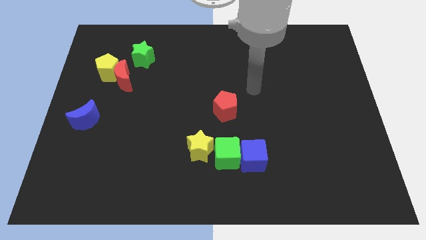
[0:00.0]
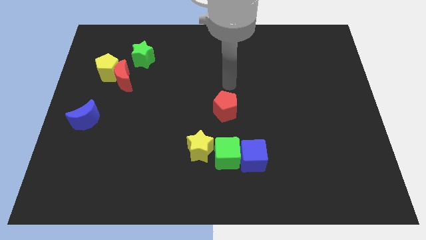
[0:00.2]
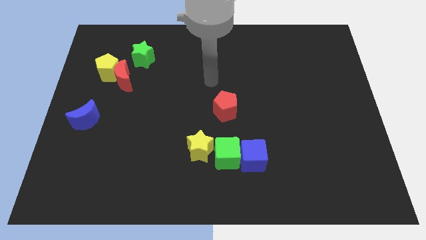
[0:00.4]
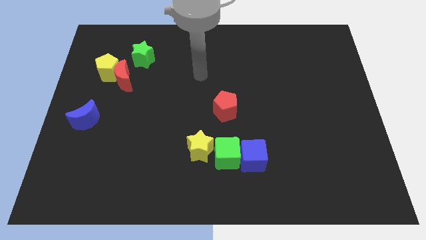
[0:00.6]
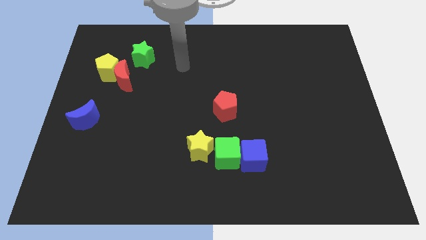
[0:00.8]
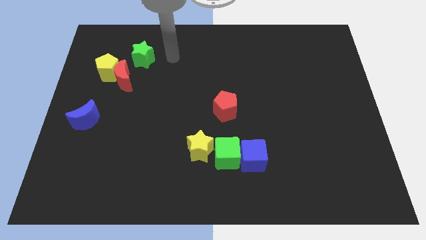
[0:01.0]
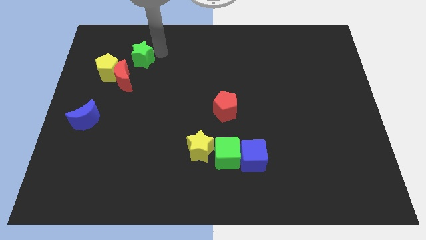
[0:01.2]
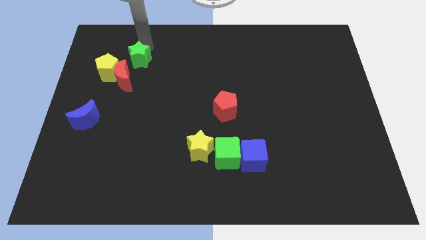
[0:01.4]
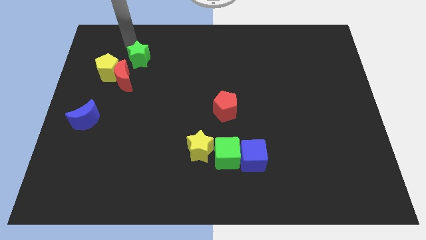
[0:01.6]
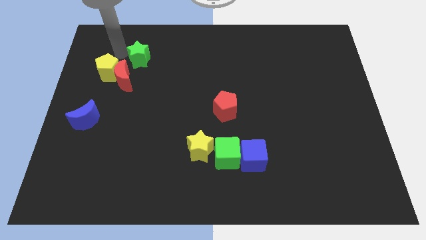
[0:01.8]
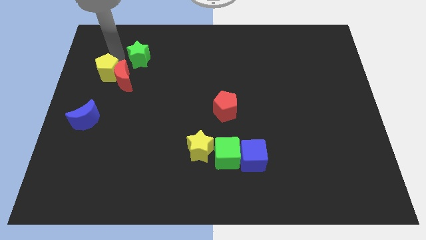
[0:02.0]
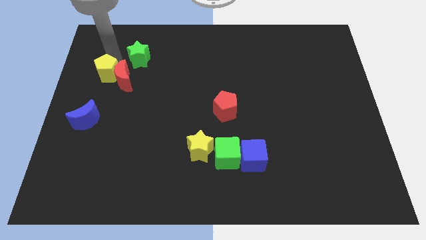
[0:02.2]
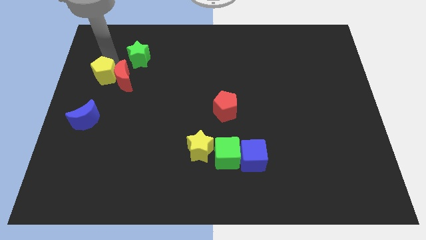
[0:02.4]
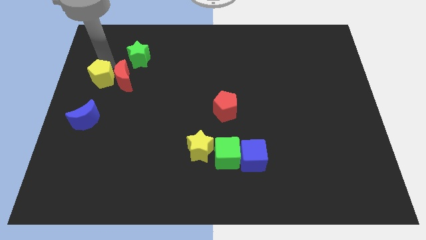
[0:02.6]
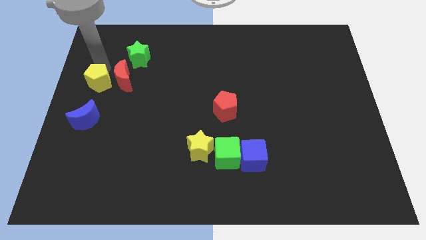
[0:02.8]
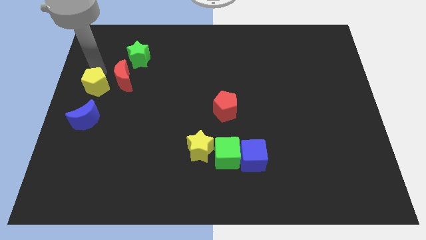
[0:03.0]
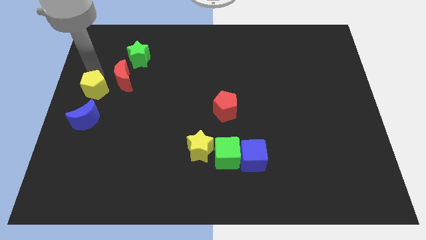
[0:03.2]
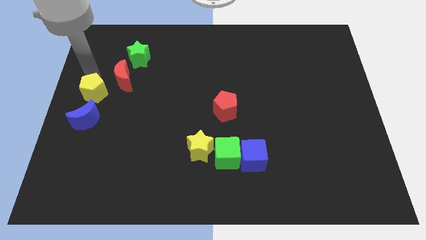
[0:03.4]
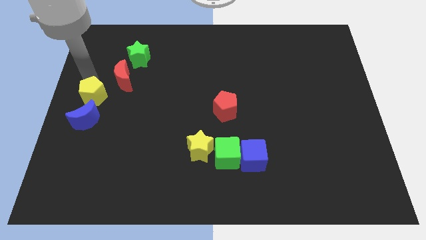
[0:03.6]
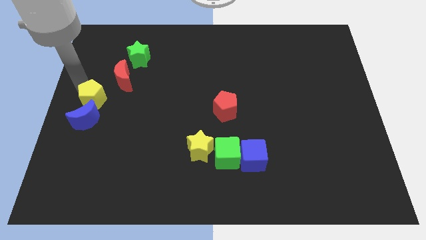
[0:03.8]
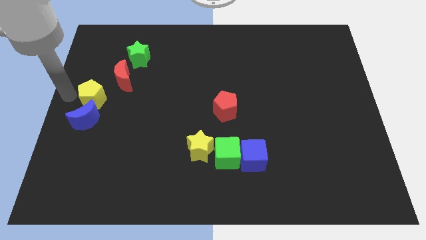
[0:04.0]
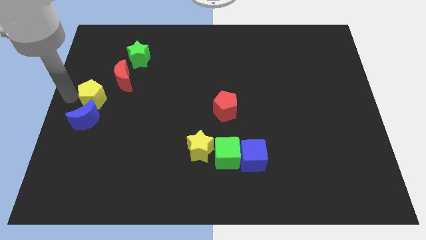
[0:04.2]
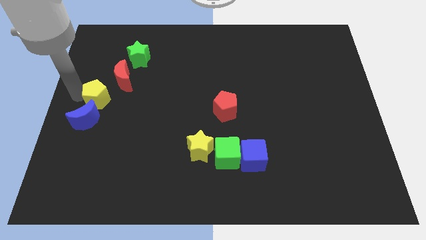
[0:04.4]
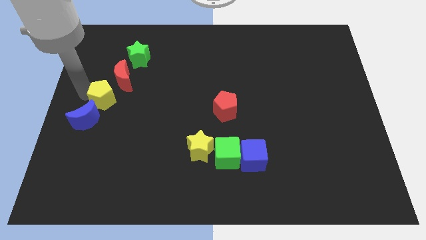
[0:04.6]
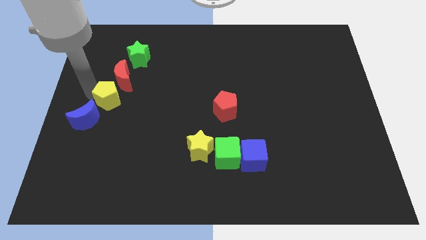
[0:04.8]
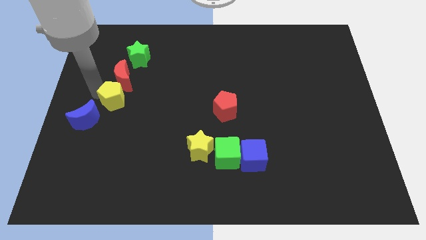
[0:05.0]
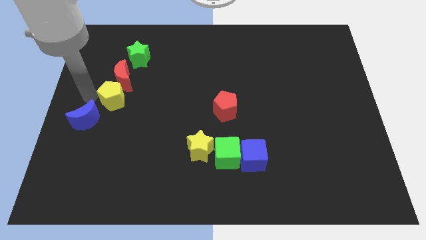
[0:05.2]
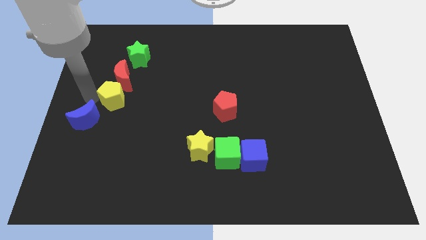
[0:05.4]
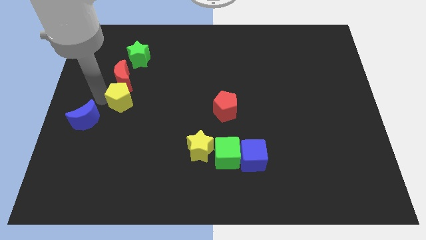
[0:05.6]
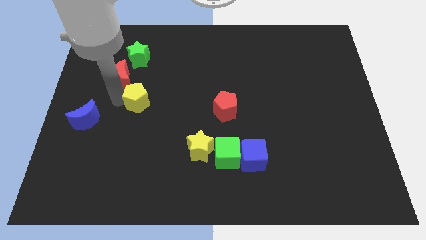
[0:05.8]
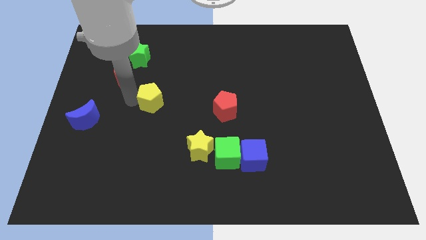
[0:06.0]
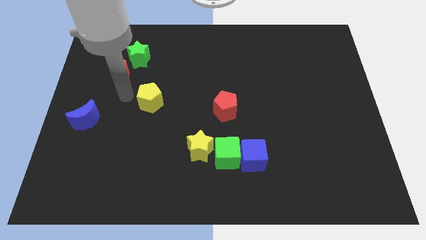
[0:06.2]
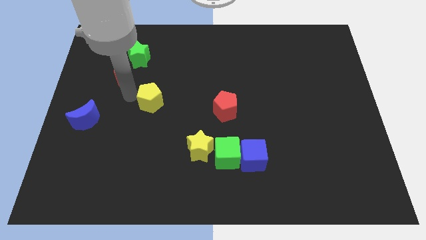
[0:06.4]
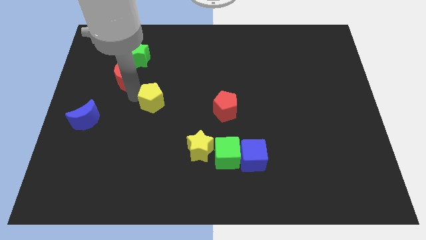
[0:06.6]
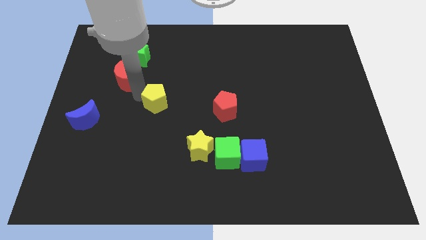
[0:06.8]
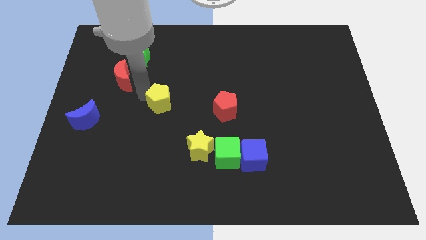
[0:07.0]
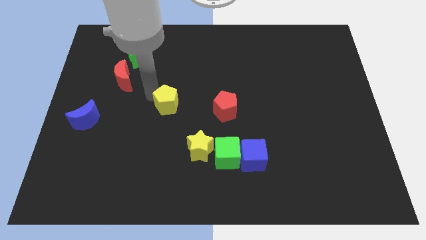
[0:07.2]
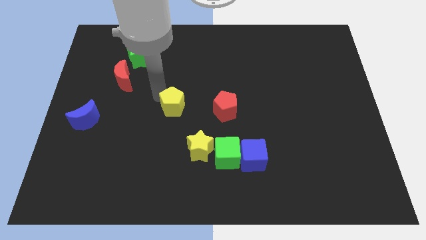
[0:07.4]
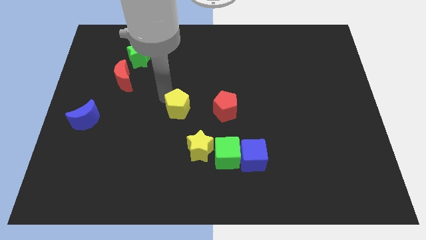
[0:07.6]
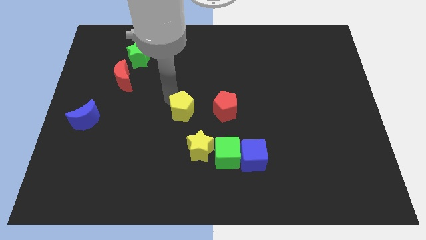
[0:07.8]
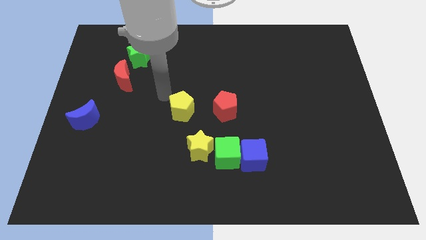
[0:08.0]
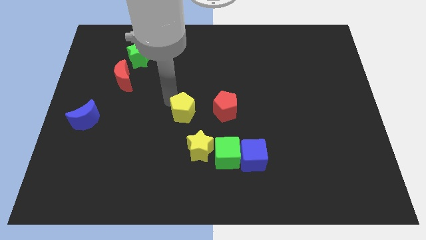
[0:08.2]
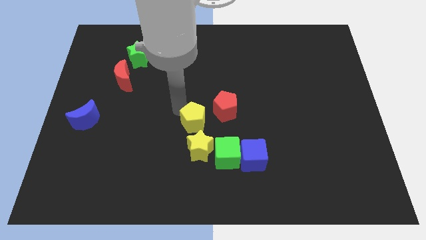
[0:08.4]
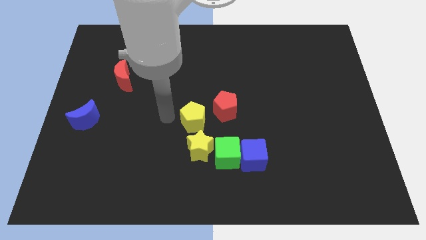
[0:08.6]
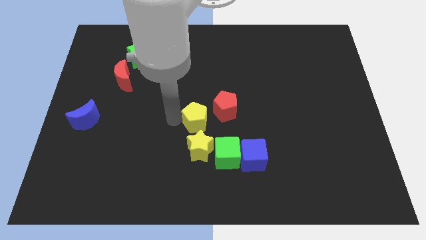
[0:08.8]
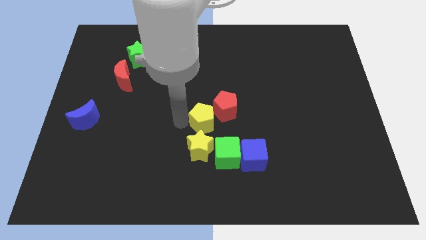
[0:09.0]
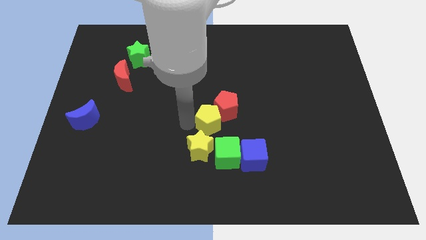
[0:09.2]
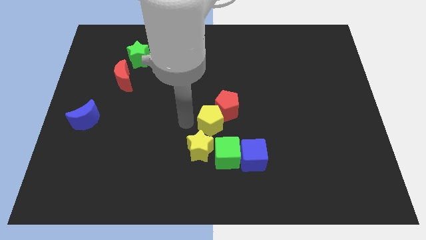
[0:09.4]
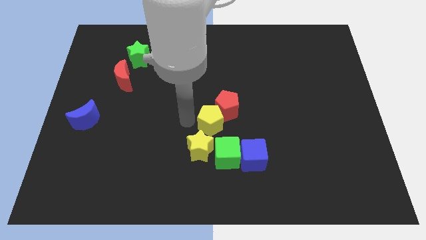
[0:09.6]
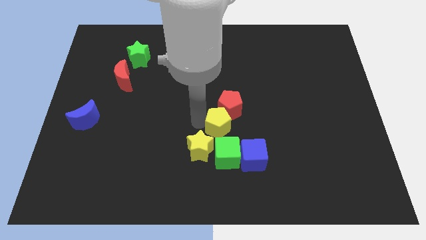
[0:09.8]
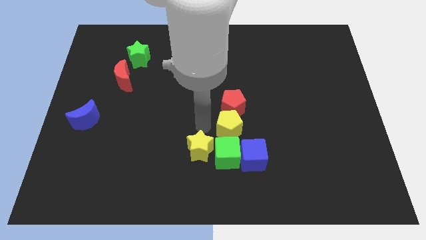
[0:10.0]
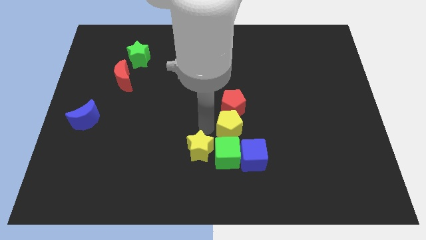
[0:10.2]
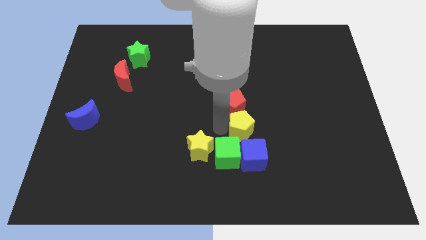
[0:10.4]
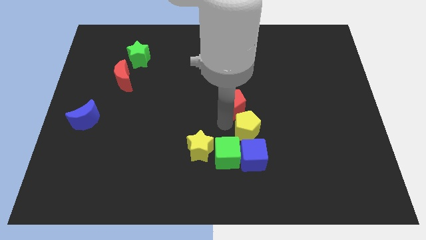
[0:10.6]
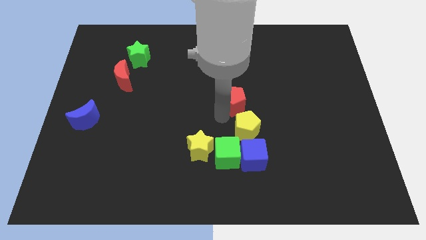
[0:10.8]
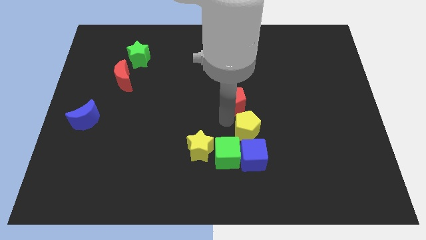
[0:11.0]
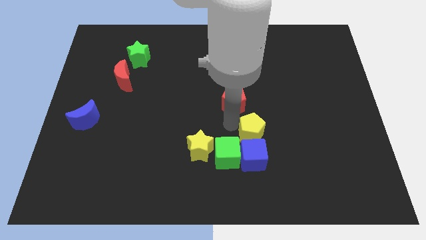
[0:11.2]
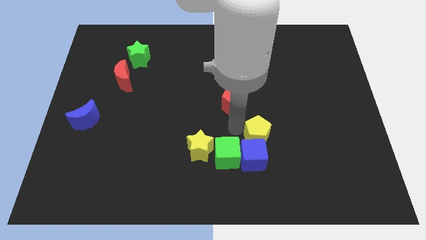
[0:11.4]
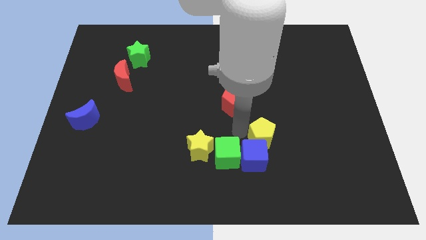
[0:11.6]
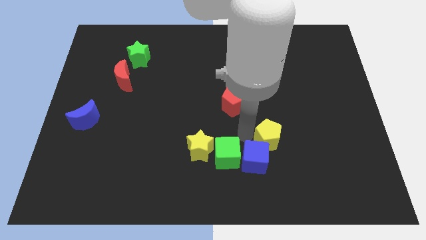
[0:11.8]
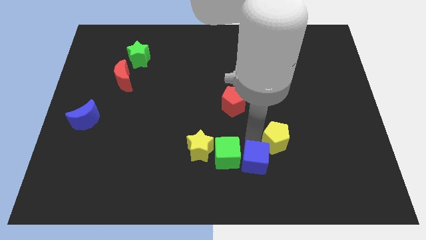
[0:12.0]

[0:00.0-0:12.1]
put the yellow pentagon to the right side of the blue cube
